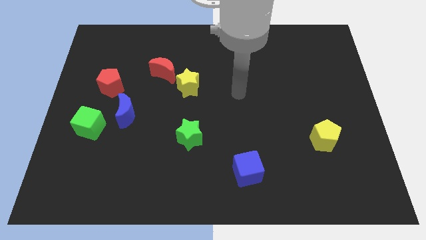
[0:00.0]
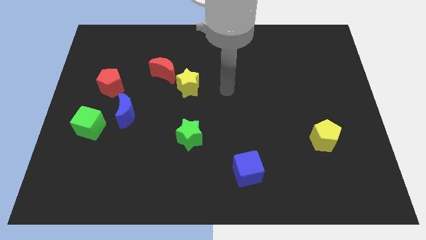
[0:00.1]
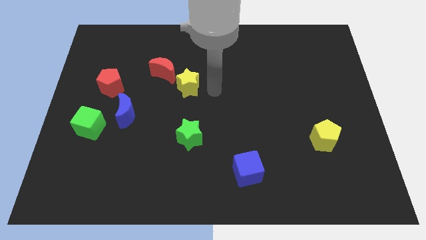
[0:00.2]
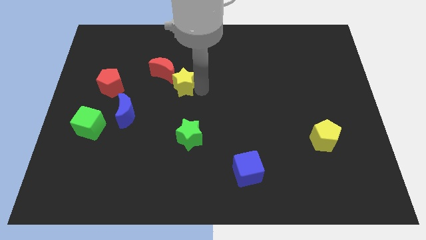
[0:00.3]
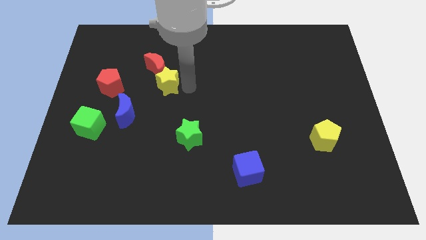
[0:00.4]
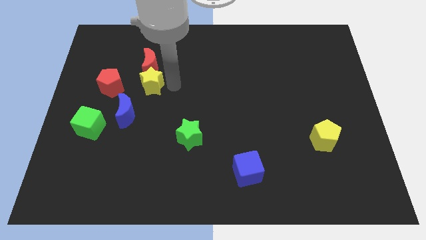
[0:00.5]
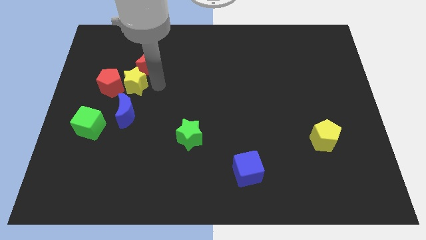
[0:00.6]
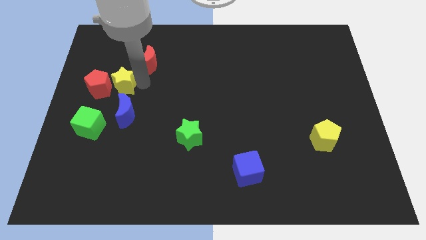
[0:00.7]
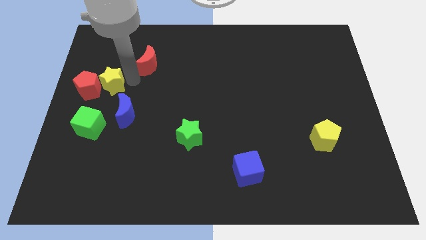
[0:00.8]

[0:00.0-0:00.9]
move the red moon away from the yellow star

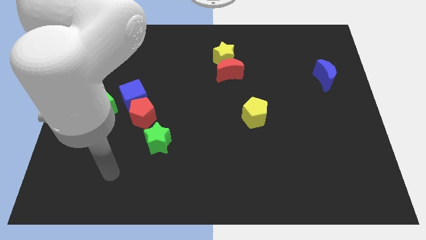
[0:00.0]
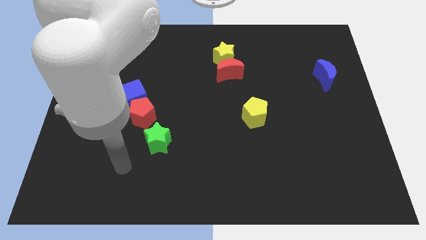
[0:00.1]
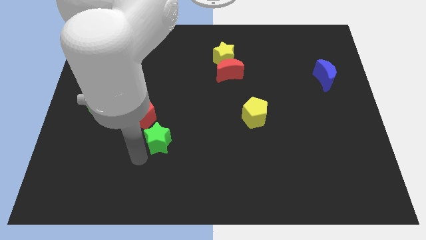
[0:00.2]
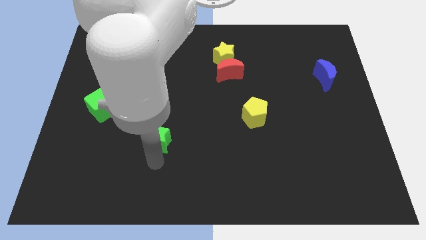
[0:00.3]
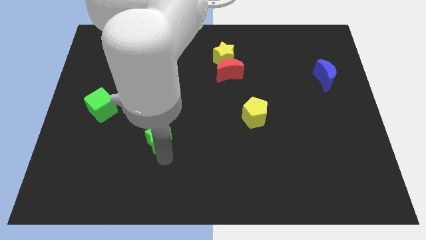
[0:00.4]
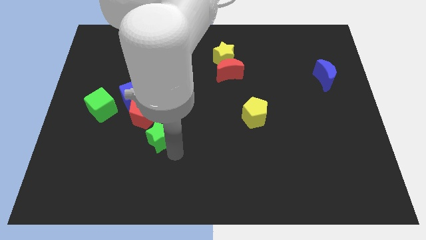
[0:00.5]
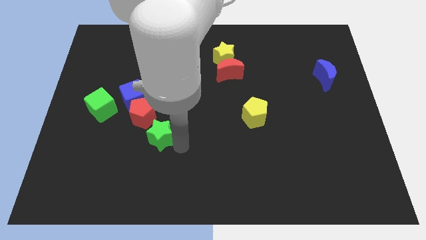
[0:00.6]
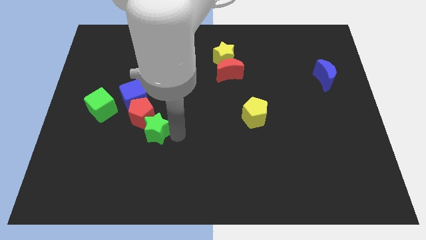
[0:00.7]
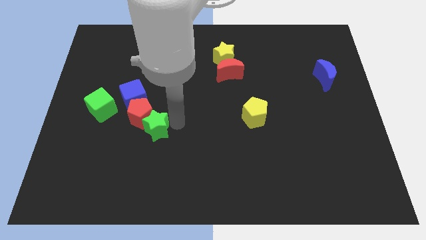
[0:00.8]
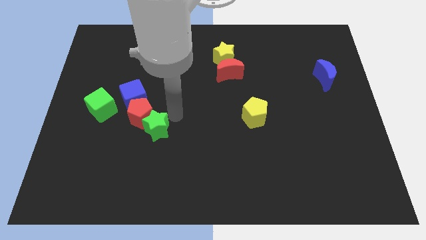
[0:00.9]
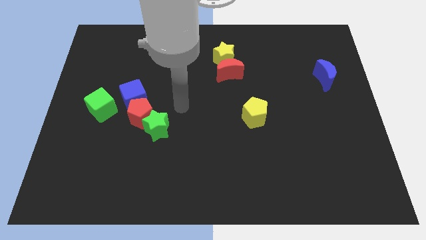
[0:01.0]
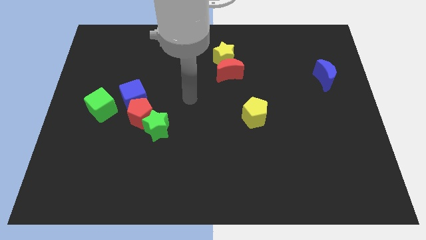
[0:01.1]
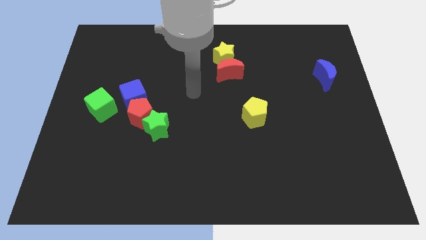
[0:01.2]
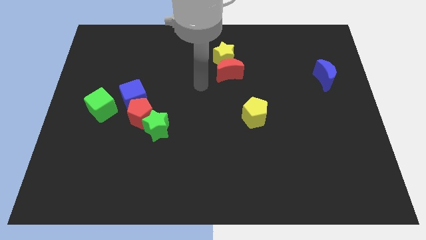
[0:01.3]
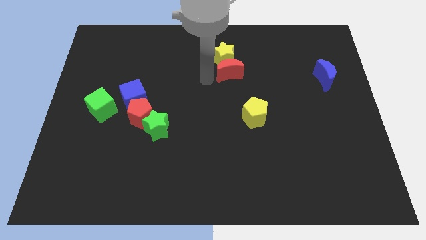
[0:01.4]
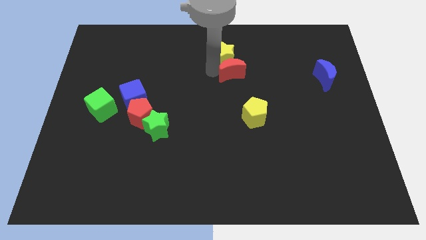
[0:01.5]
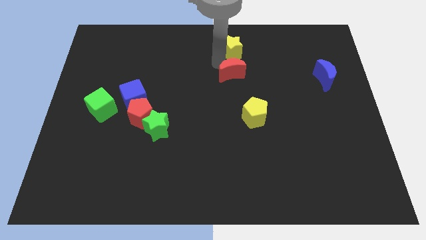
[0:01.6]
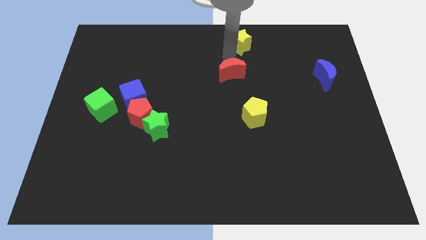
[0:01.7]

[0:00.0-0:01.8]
separate the red moon from the yellow star

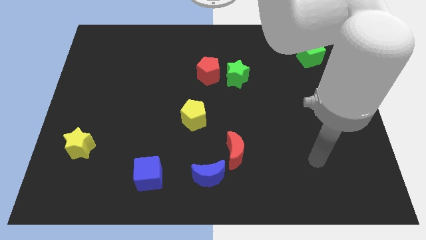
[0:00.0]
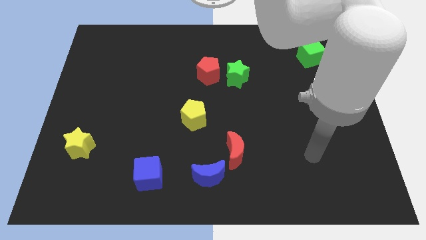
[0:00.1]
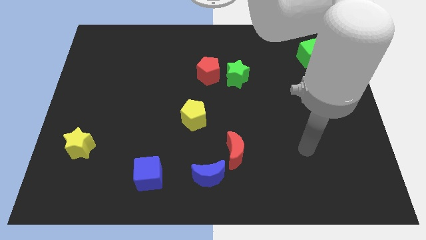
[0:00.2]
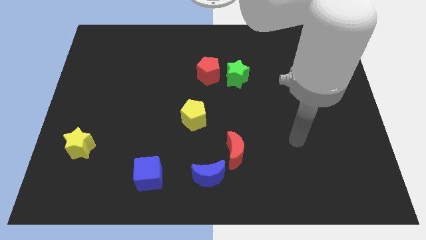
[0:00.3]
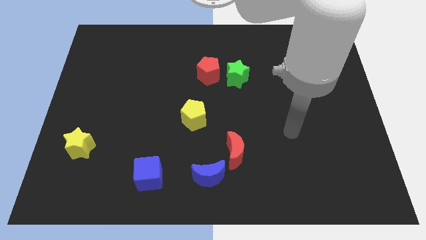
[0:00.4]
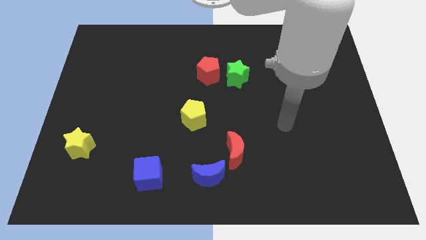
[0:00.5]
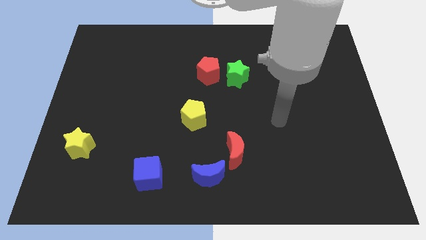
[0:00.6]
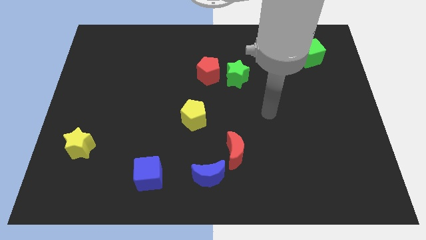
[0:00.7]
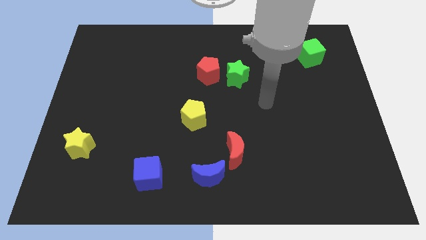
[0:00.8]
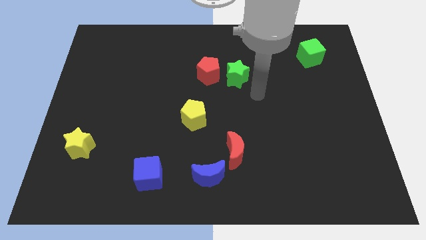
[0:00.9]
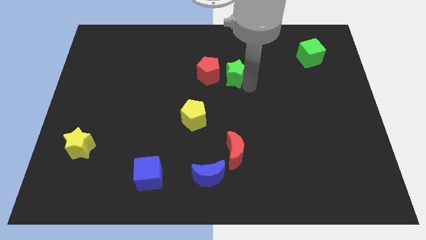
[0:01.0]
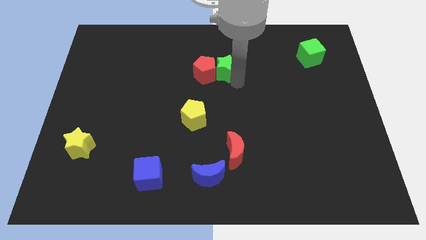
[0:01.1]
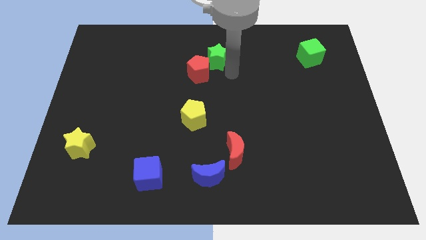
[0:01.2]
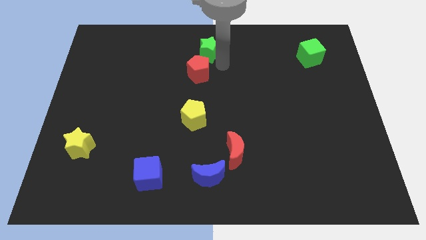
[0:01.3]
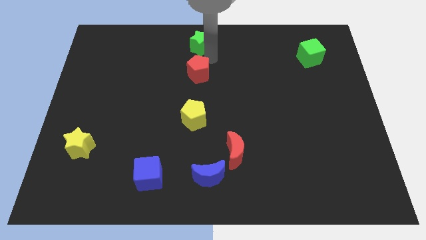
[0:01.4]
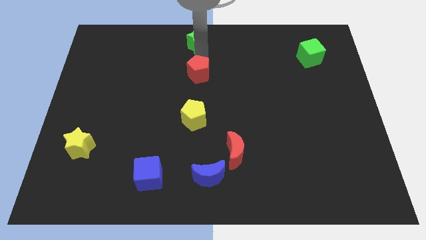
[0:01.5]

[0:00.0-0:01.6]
separate the red pentagon from the green star

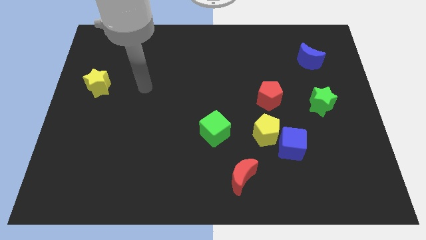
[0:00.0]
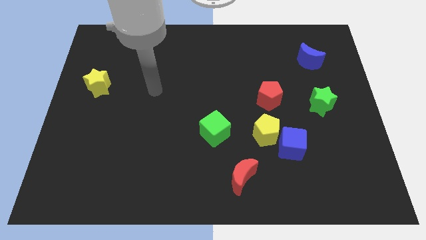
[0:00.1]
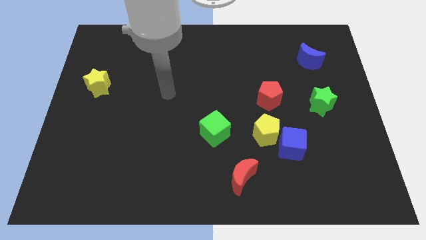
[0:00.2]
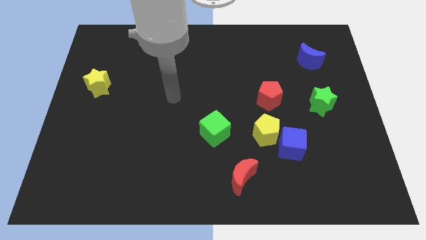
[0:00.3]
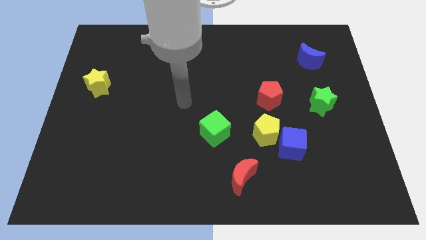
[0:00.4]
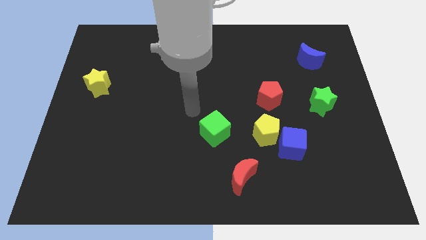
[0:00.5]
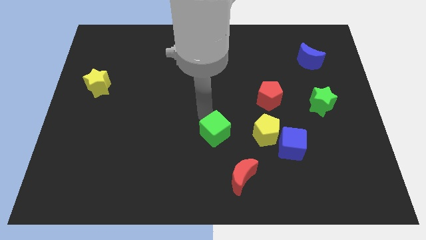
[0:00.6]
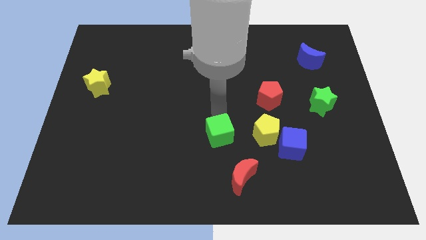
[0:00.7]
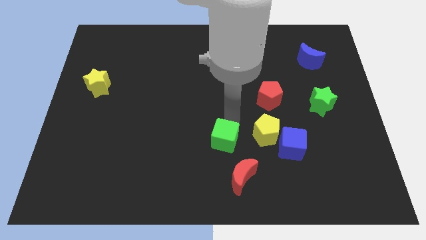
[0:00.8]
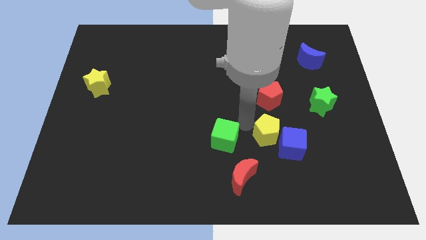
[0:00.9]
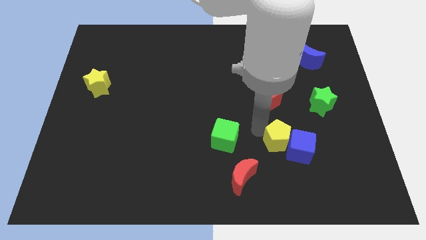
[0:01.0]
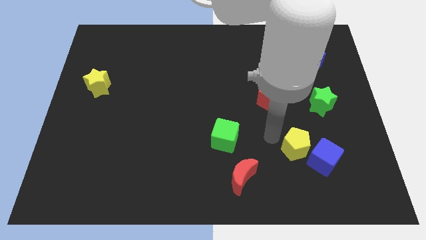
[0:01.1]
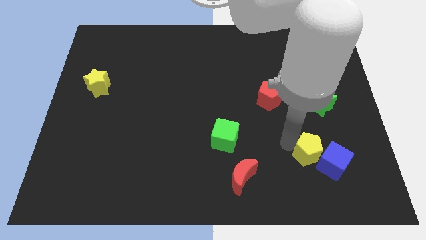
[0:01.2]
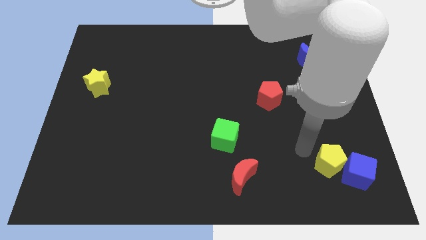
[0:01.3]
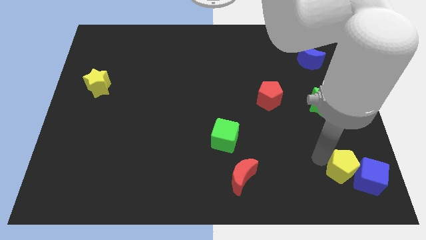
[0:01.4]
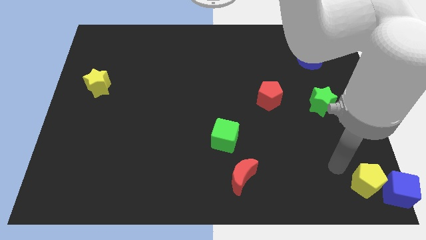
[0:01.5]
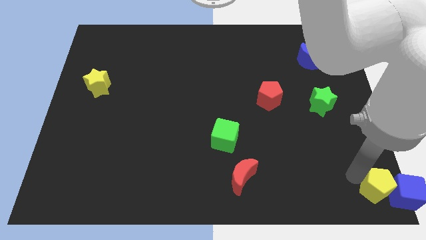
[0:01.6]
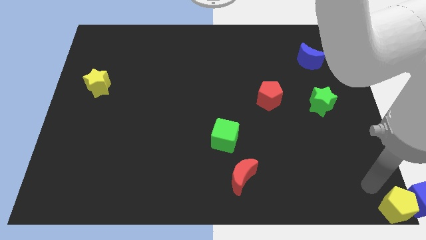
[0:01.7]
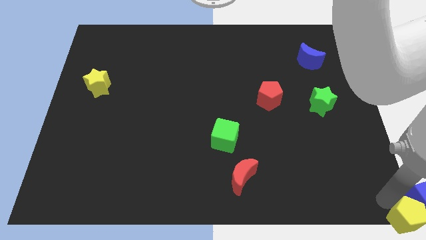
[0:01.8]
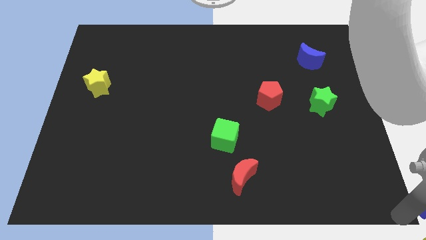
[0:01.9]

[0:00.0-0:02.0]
separate the blue cube from the yellow pentagon

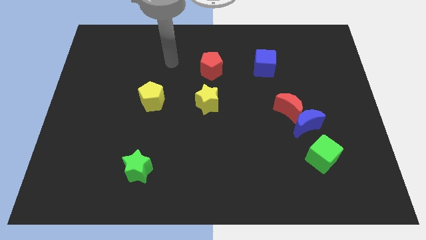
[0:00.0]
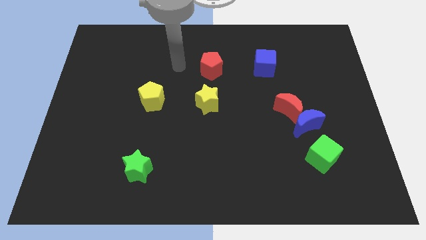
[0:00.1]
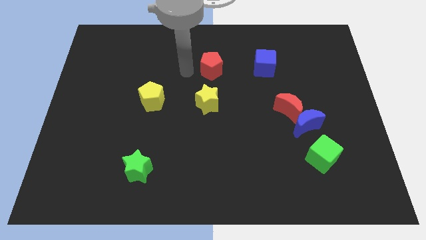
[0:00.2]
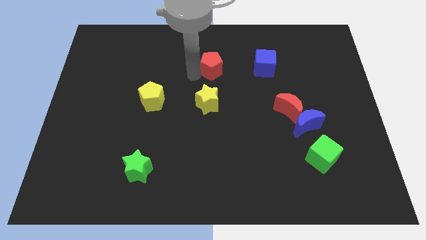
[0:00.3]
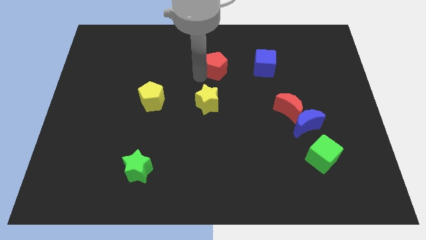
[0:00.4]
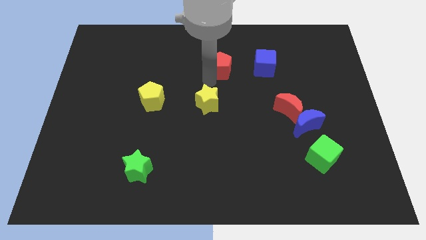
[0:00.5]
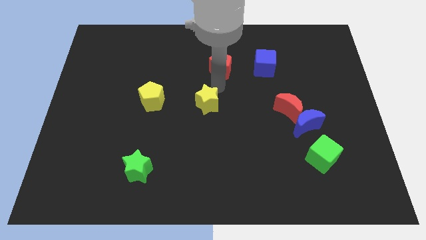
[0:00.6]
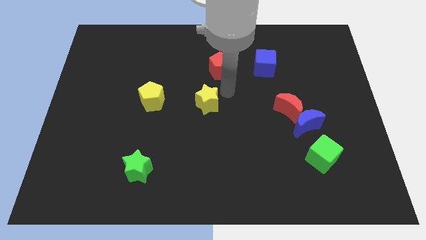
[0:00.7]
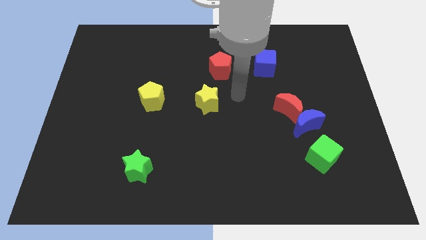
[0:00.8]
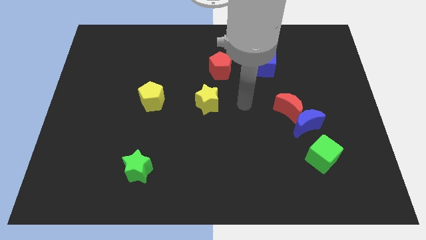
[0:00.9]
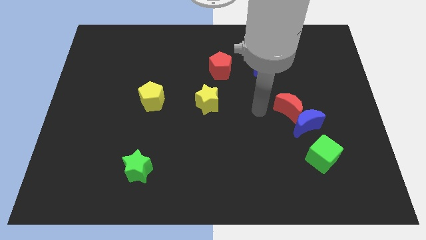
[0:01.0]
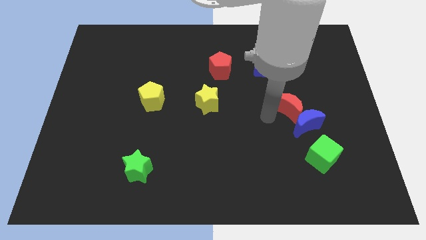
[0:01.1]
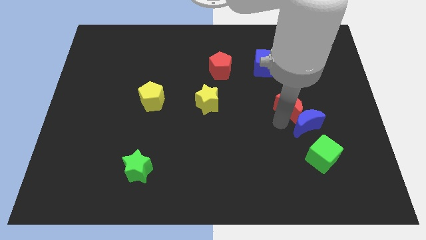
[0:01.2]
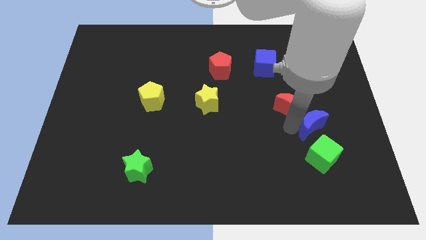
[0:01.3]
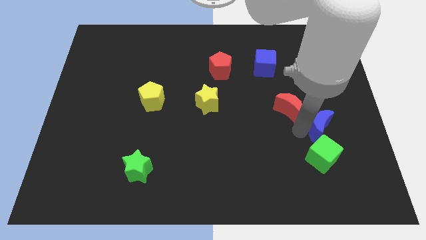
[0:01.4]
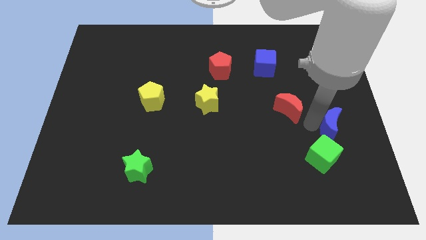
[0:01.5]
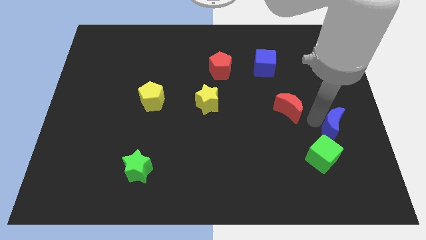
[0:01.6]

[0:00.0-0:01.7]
pull the red moon apart from the blue moon

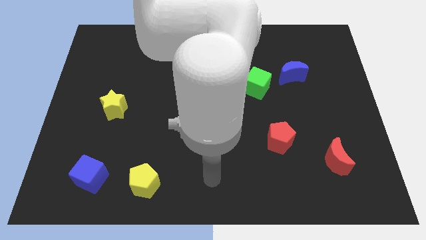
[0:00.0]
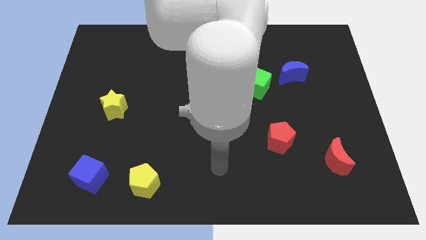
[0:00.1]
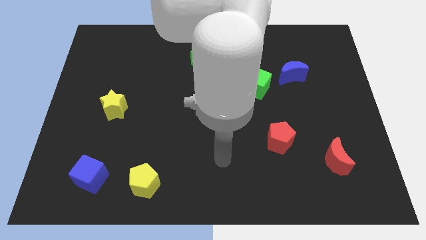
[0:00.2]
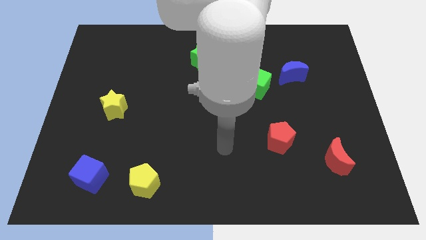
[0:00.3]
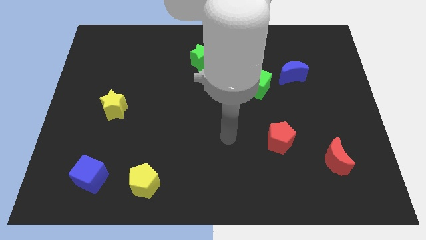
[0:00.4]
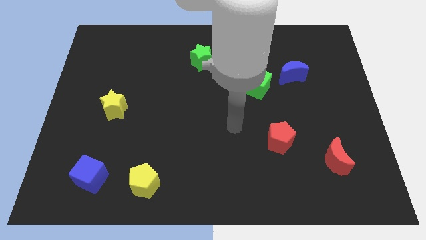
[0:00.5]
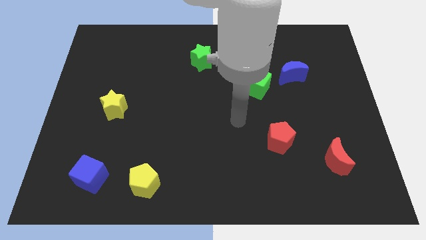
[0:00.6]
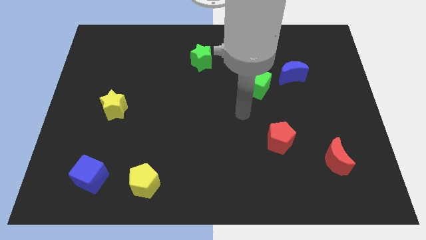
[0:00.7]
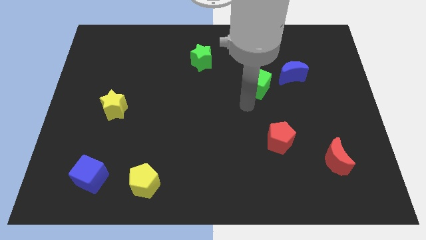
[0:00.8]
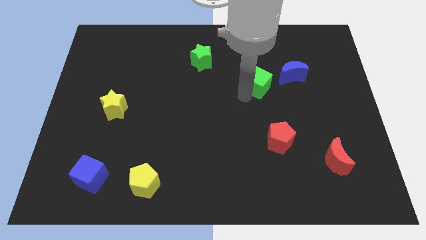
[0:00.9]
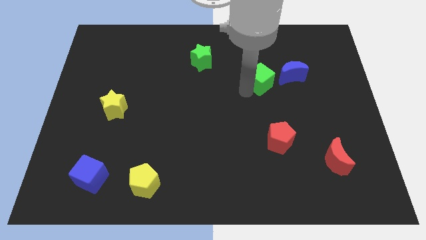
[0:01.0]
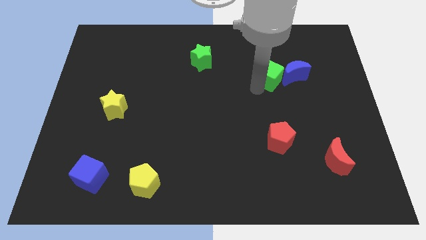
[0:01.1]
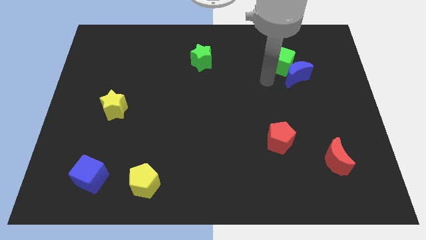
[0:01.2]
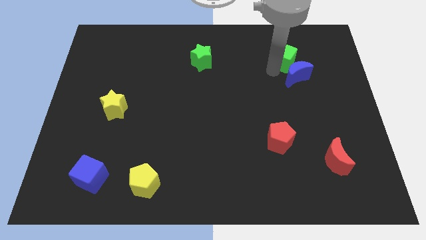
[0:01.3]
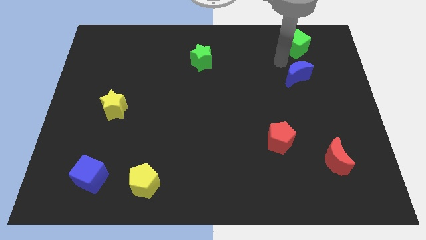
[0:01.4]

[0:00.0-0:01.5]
separate the blue moon from the green cube
